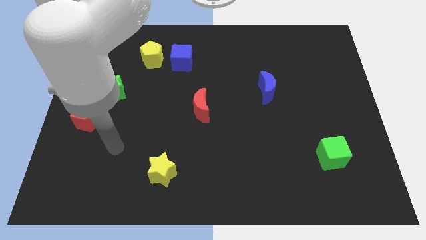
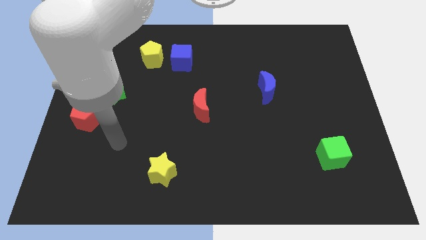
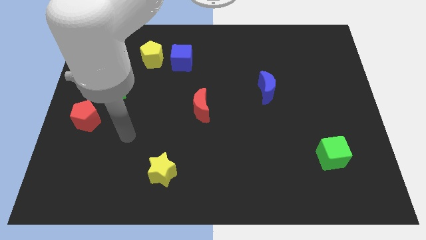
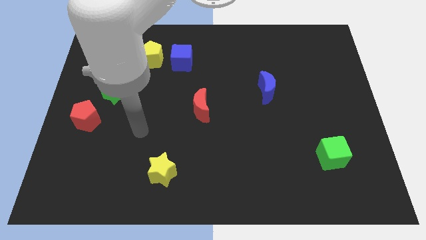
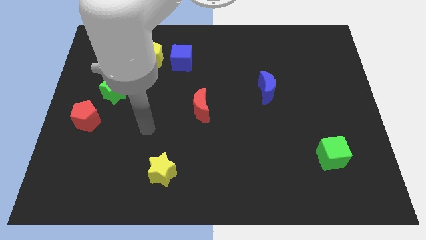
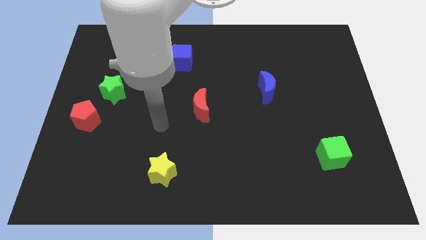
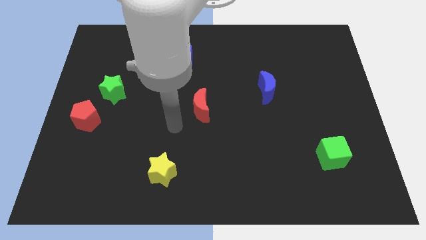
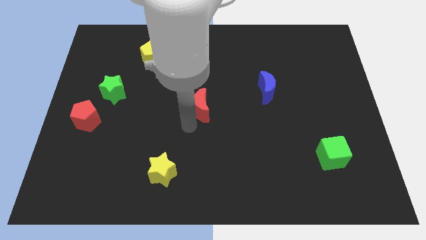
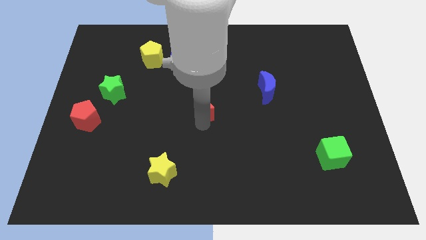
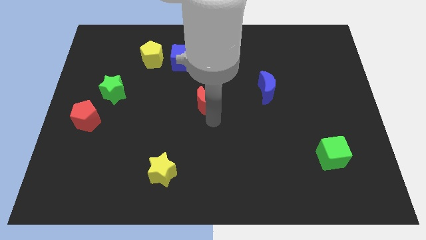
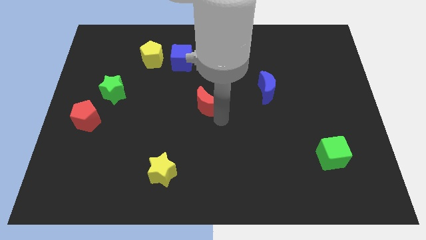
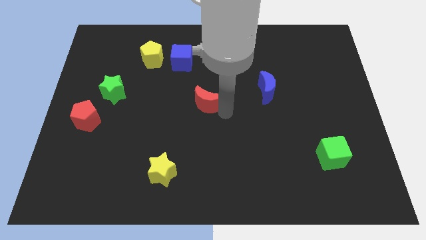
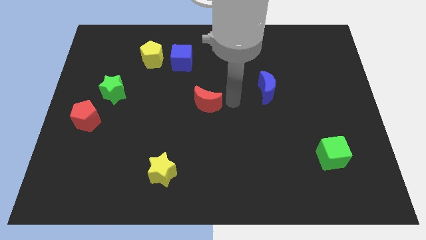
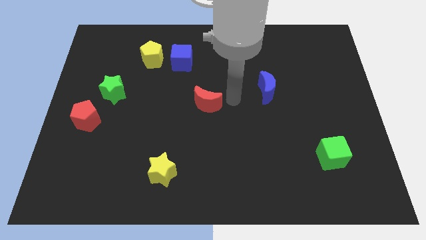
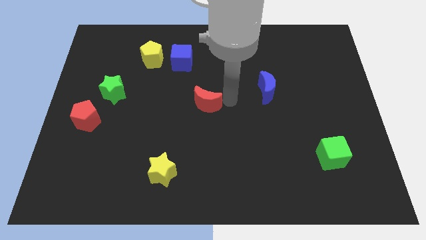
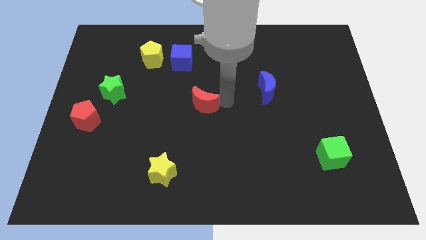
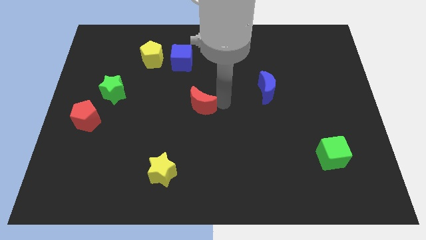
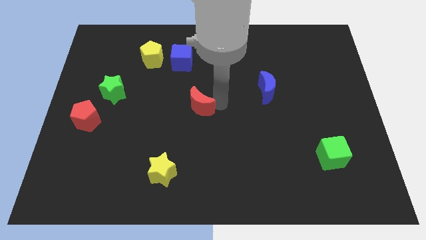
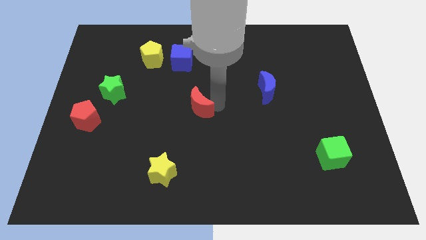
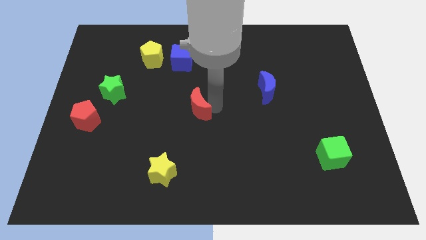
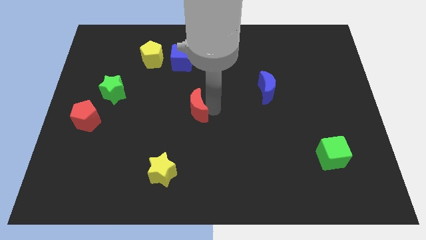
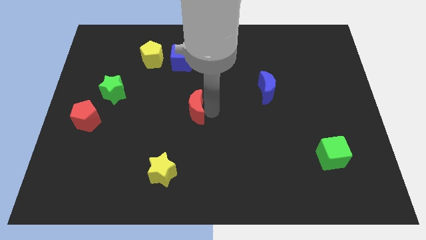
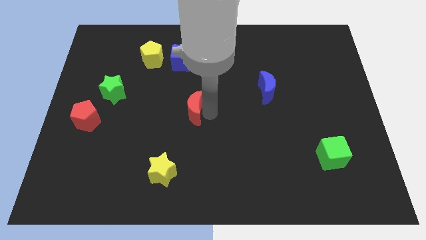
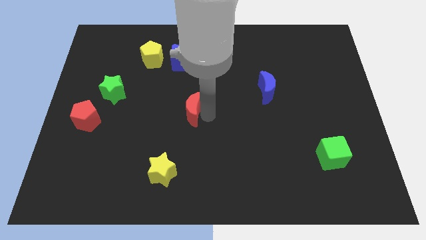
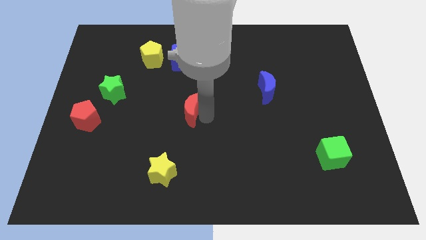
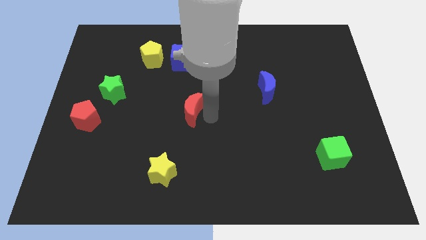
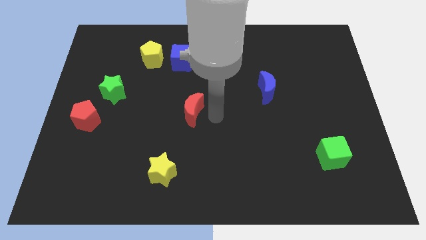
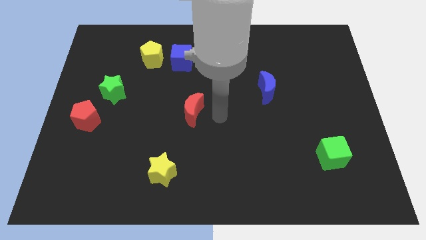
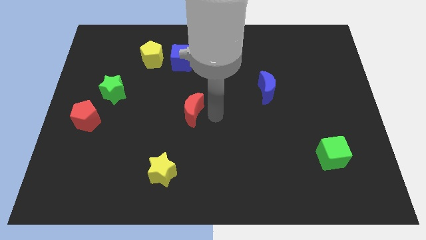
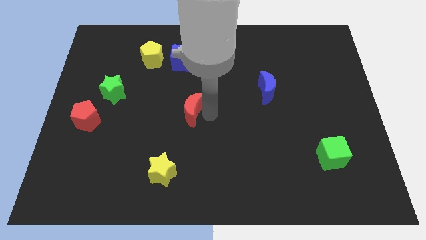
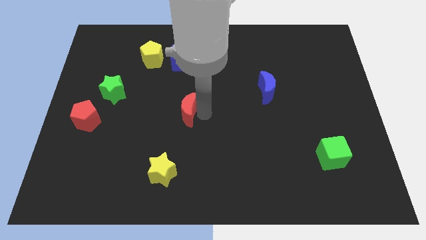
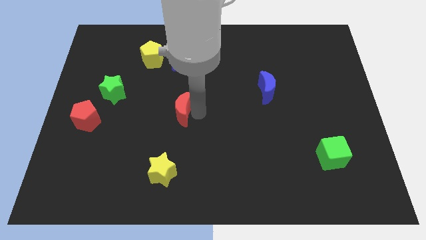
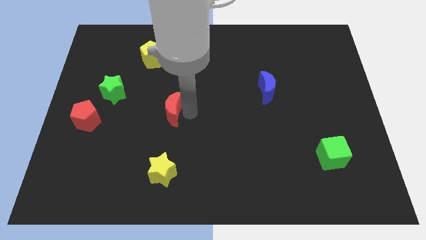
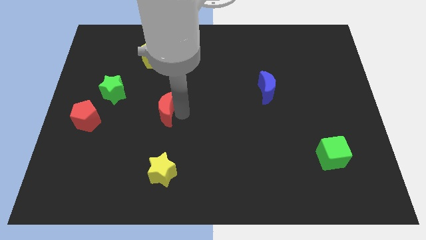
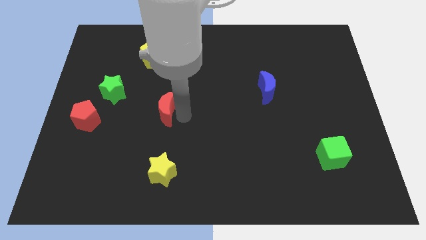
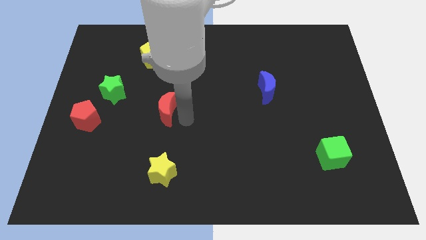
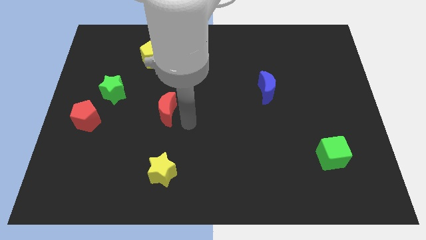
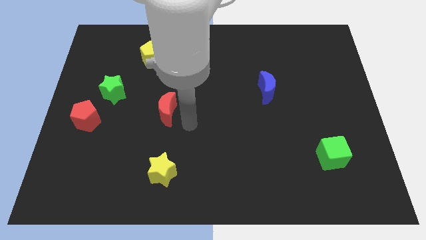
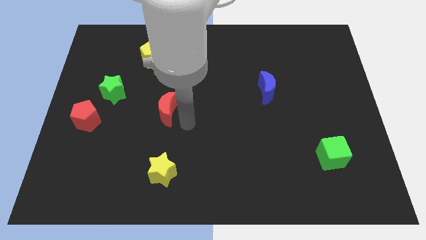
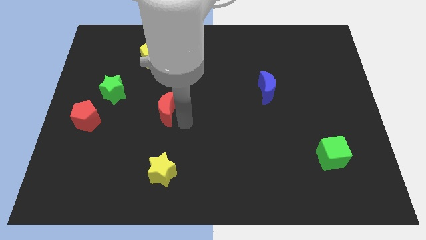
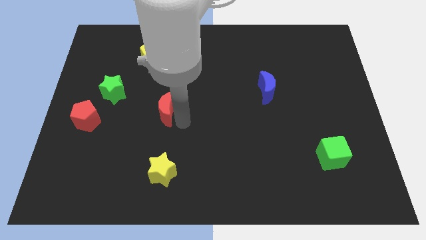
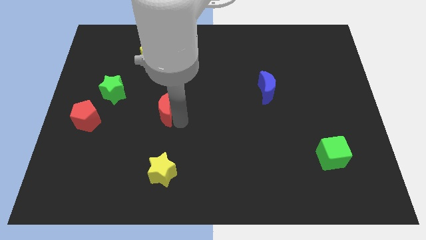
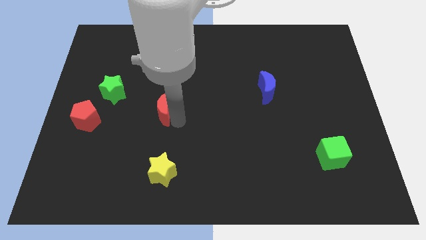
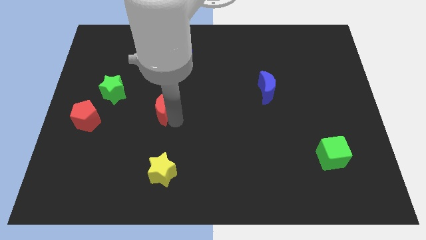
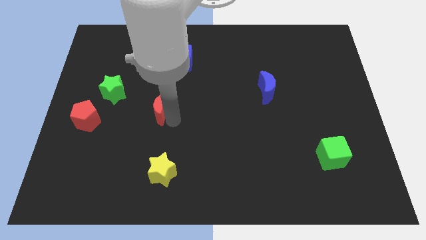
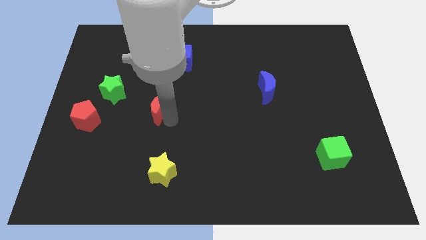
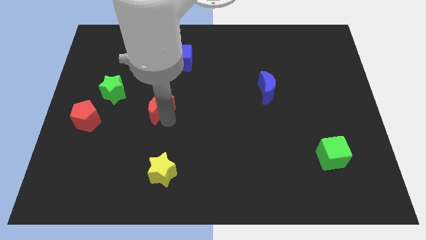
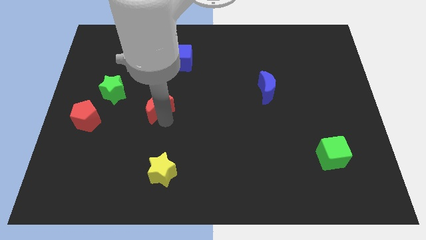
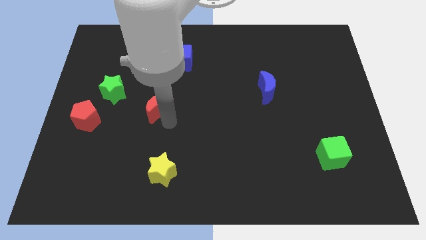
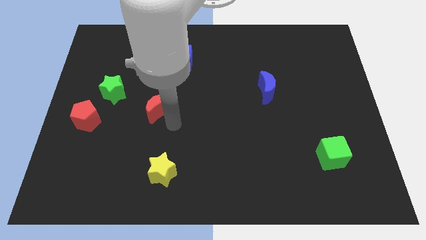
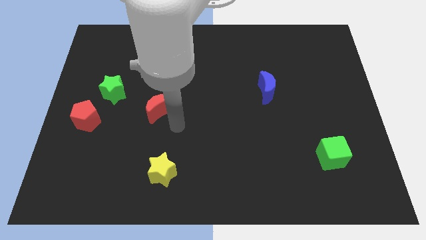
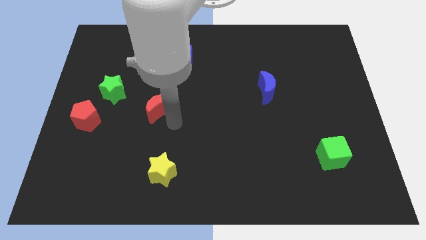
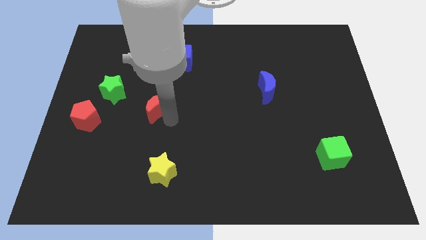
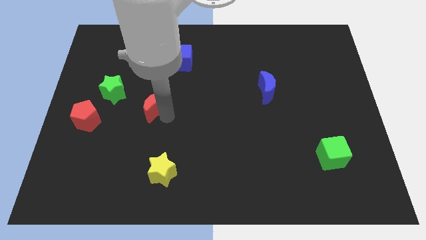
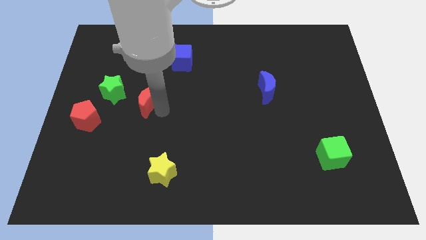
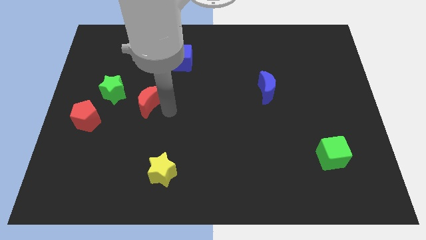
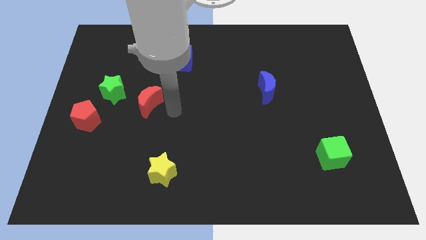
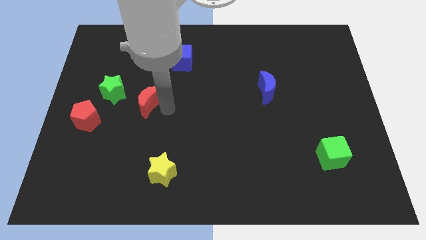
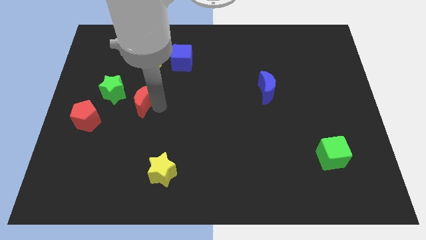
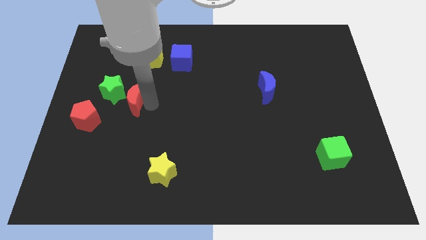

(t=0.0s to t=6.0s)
put the red moon towards the green star

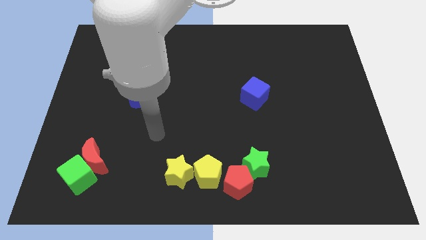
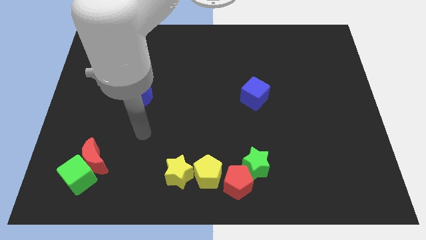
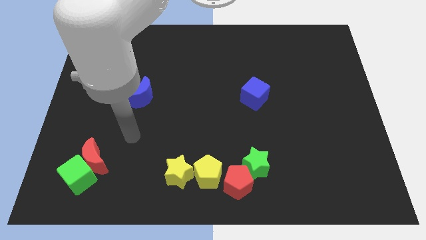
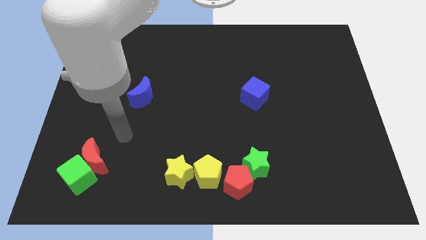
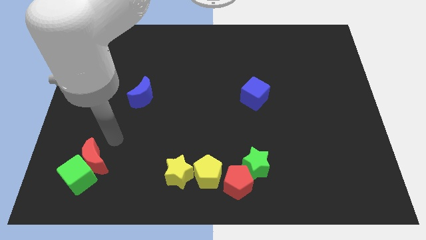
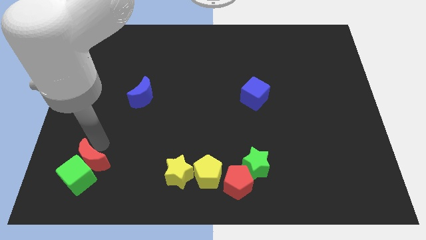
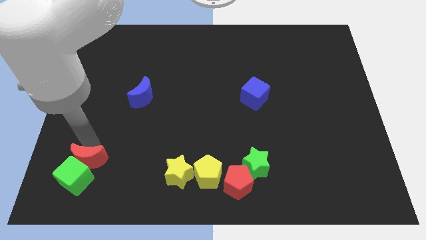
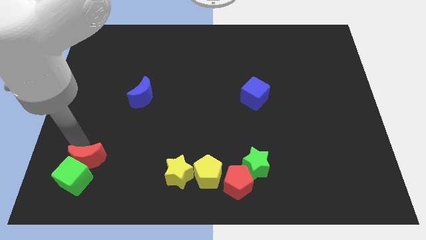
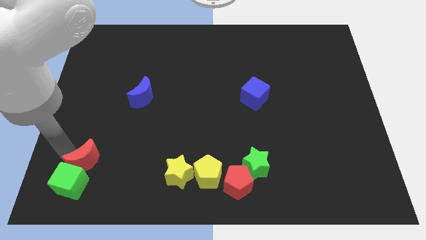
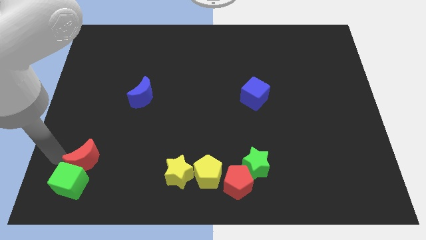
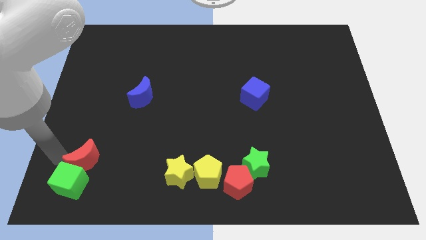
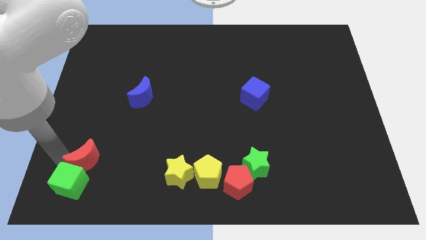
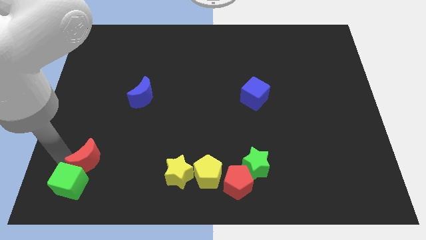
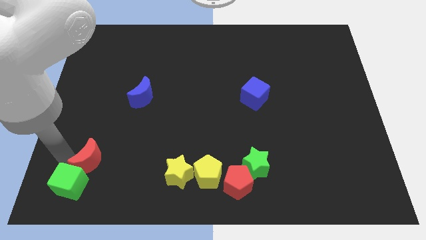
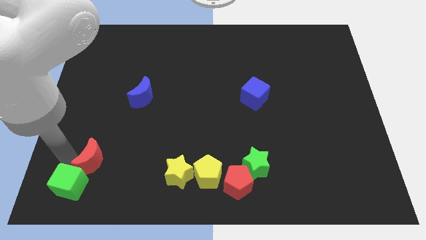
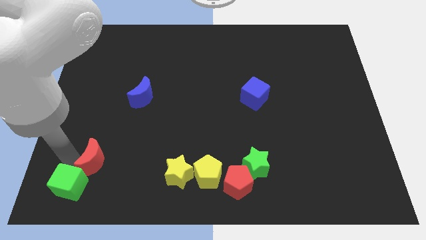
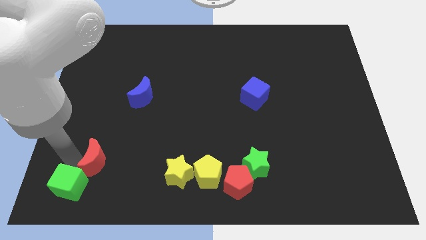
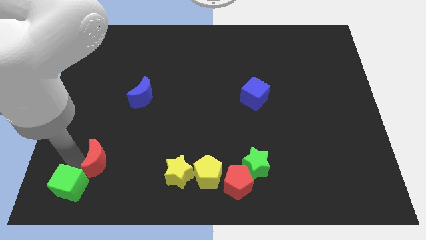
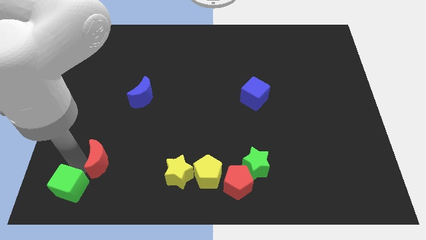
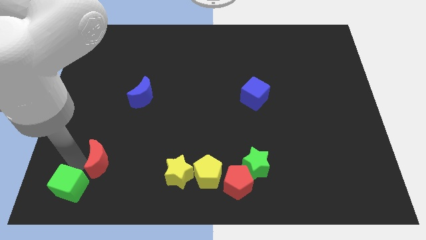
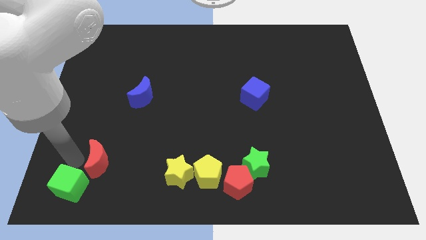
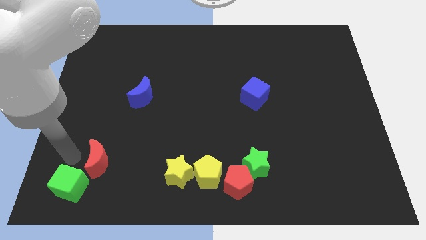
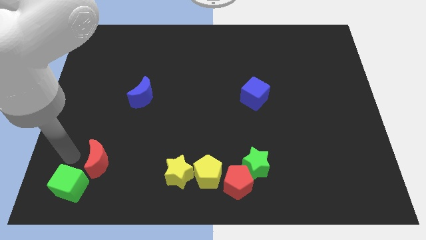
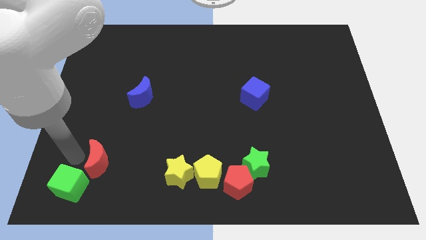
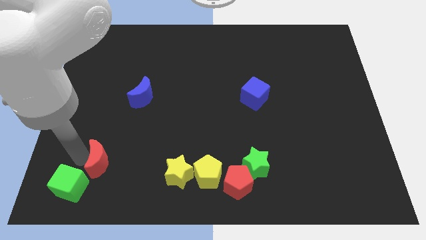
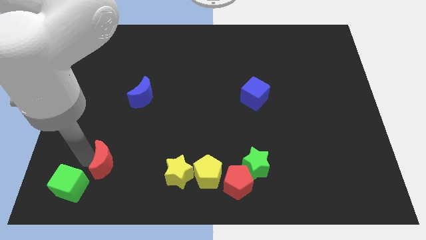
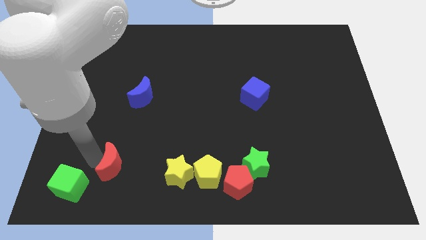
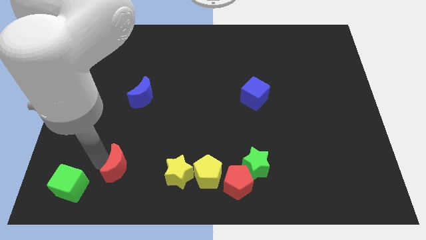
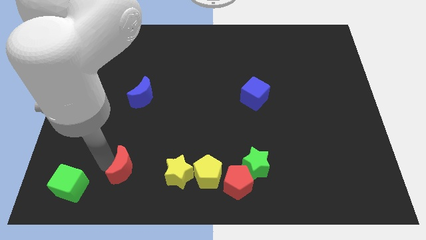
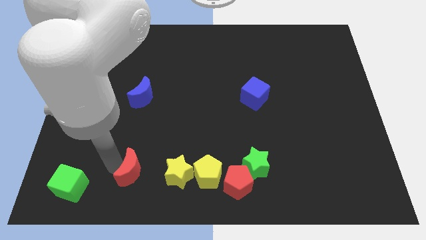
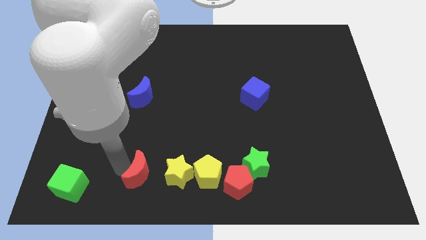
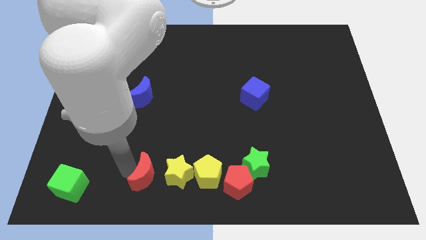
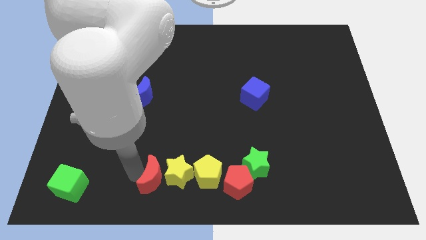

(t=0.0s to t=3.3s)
push the red moon next to the yellow star
